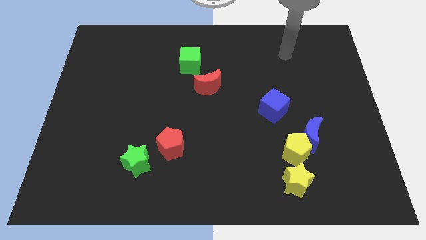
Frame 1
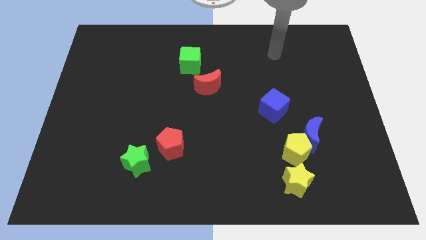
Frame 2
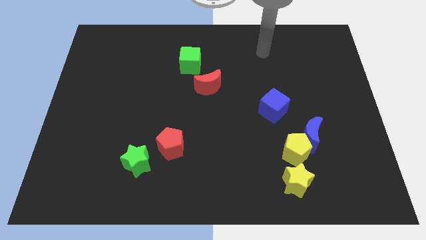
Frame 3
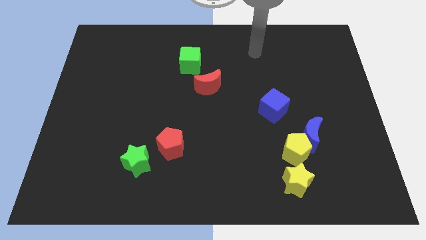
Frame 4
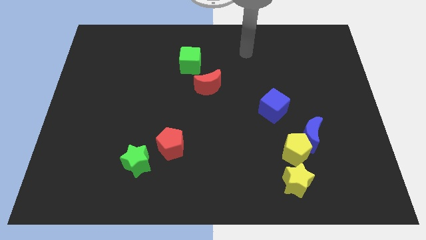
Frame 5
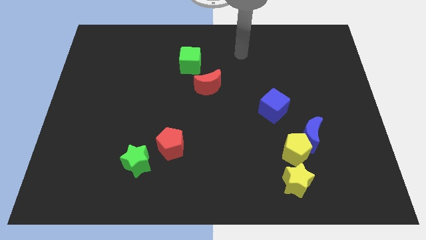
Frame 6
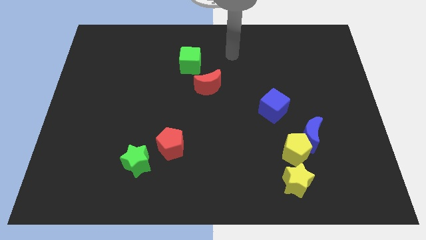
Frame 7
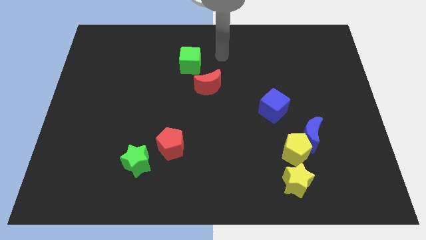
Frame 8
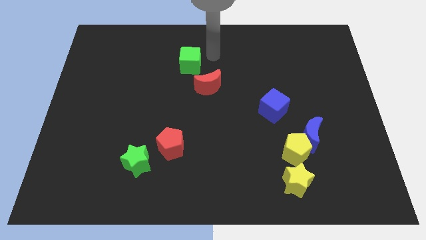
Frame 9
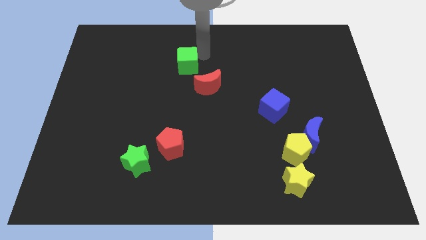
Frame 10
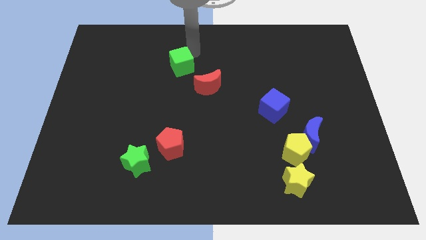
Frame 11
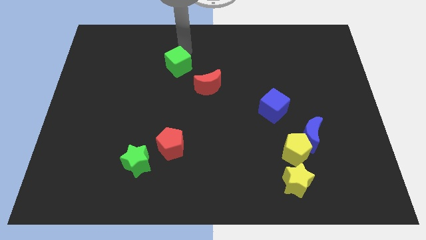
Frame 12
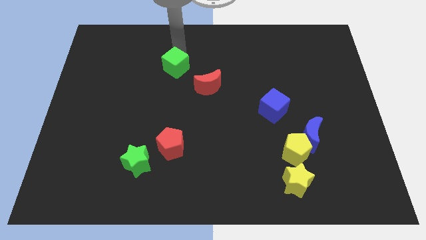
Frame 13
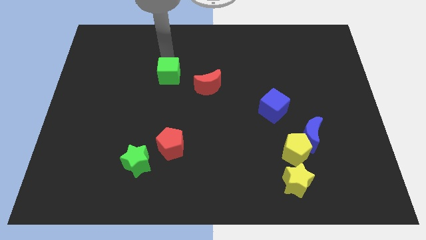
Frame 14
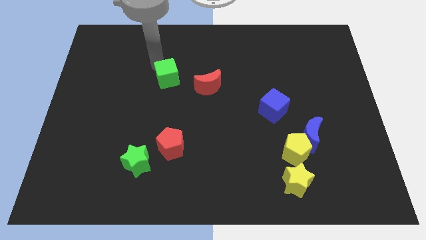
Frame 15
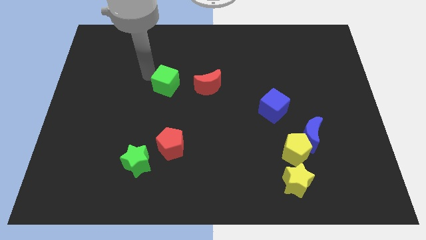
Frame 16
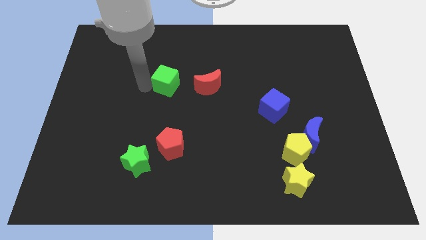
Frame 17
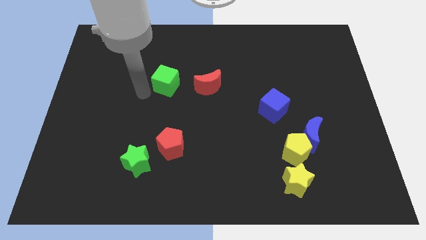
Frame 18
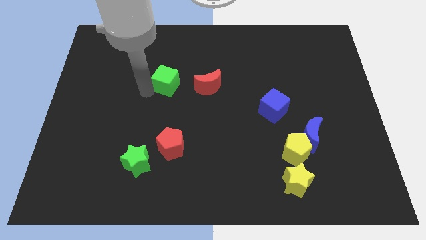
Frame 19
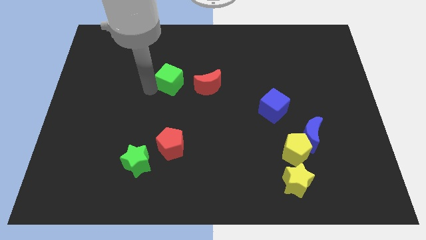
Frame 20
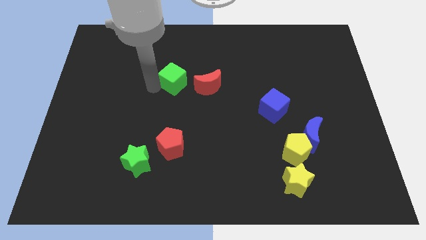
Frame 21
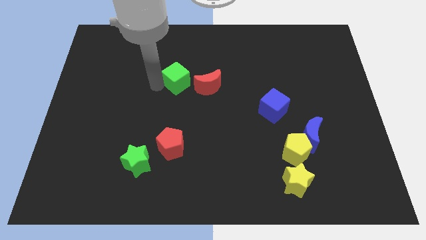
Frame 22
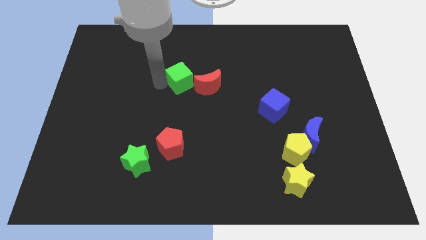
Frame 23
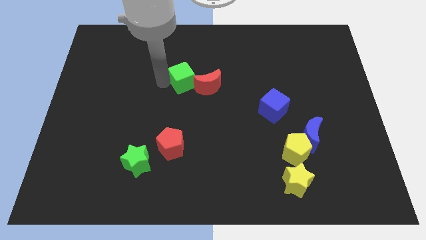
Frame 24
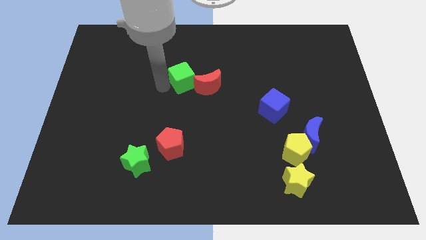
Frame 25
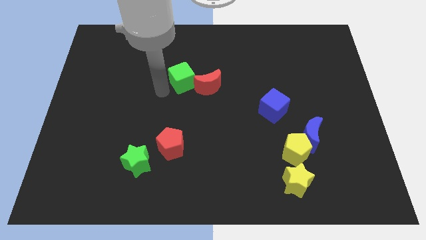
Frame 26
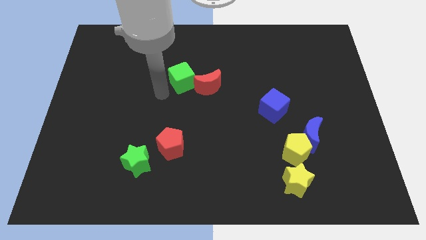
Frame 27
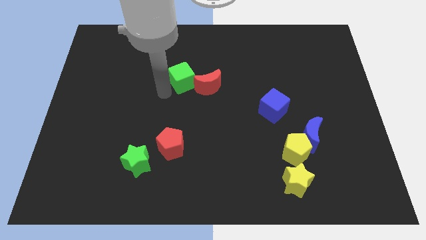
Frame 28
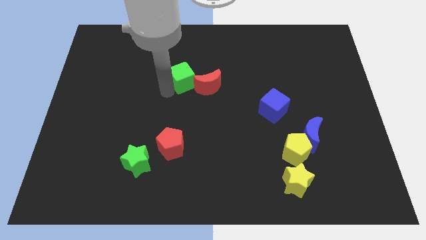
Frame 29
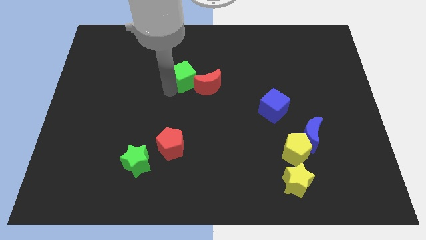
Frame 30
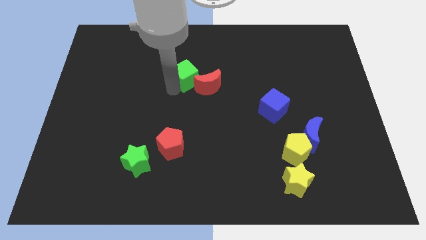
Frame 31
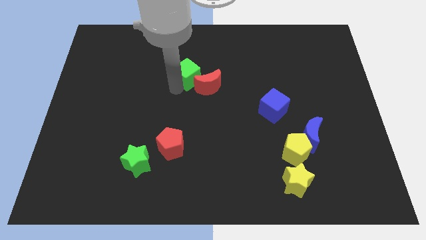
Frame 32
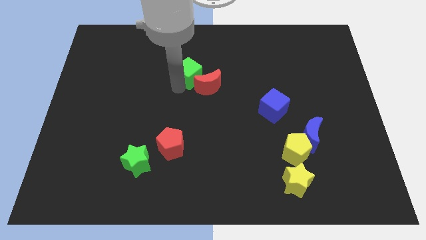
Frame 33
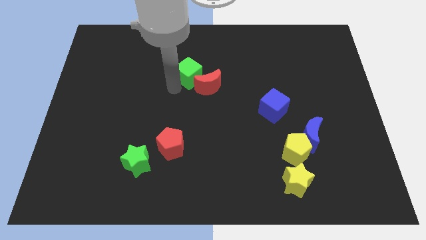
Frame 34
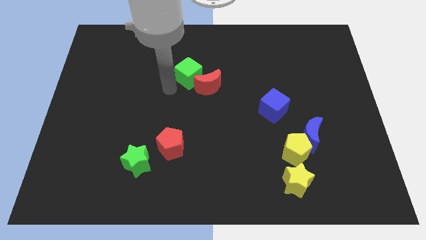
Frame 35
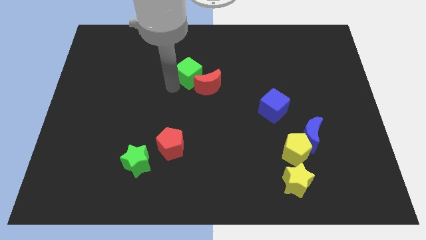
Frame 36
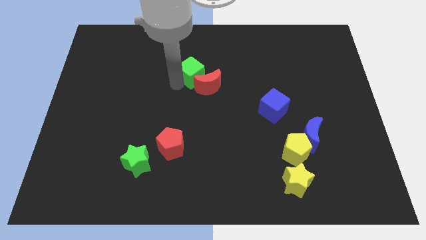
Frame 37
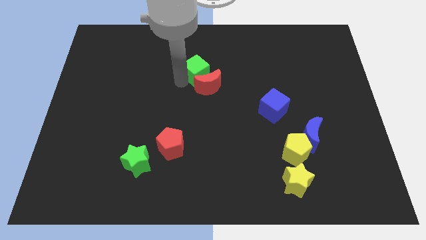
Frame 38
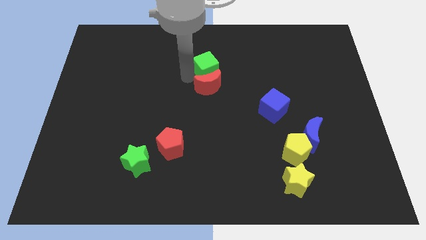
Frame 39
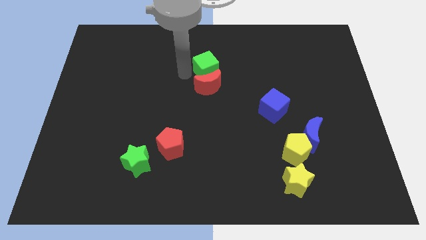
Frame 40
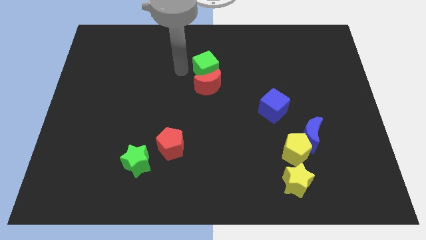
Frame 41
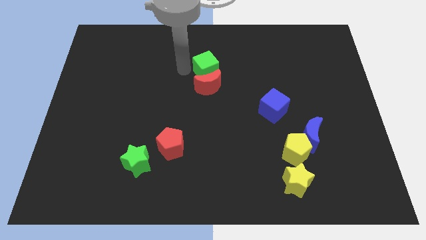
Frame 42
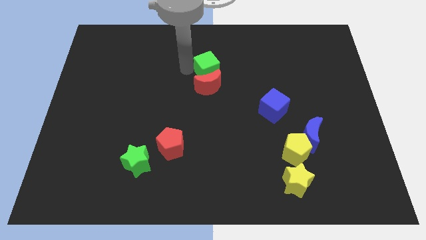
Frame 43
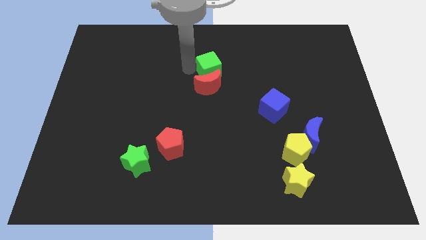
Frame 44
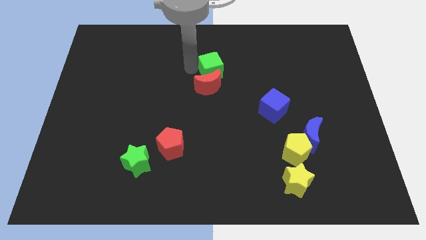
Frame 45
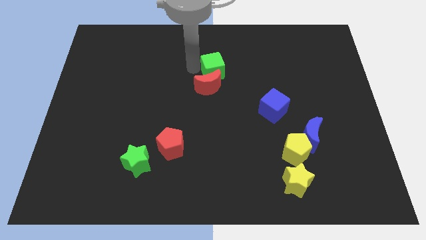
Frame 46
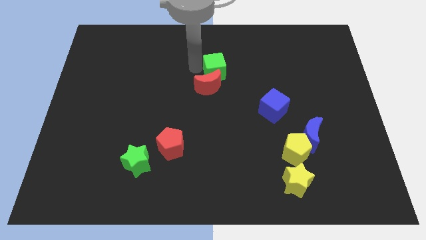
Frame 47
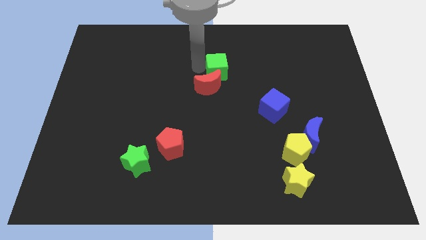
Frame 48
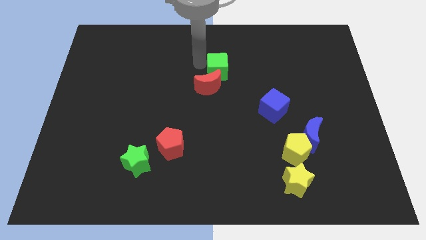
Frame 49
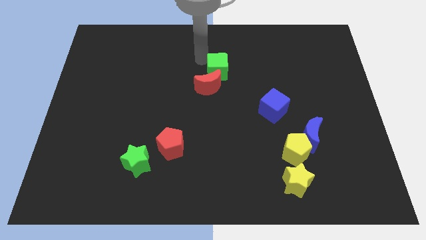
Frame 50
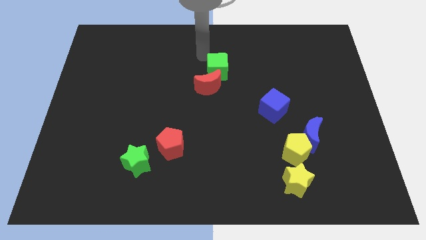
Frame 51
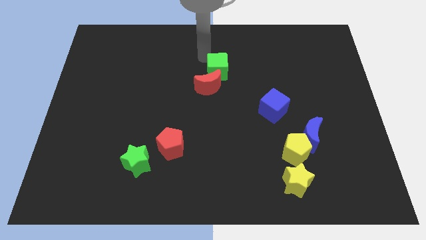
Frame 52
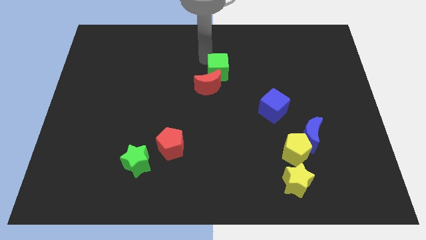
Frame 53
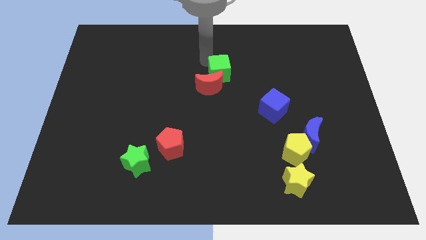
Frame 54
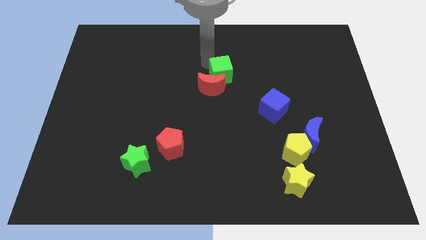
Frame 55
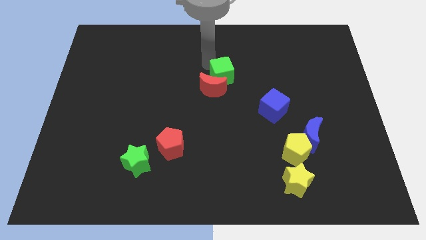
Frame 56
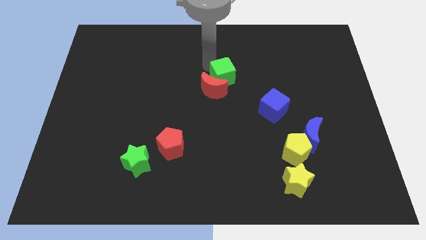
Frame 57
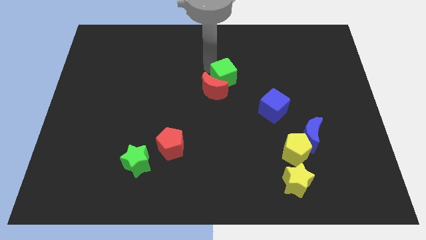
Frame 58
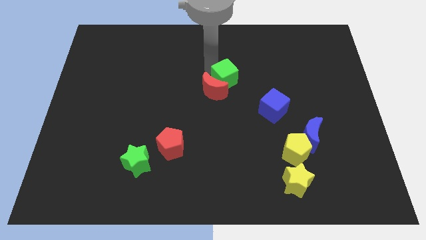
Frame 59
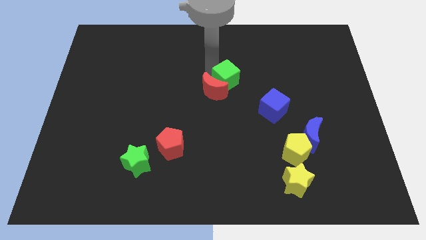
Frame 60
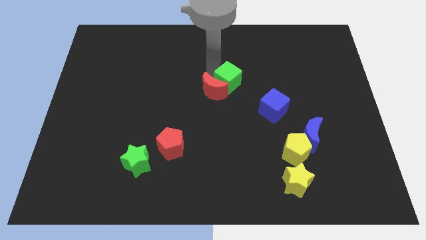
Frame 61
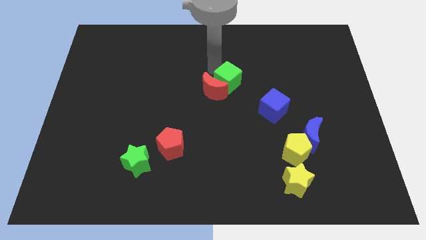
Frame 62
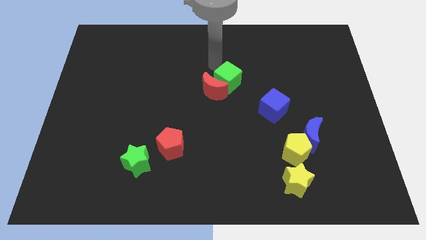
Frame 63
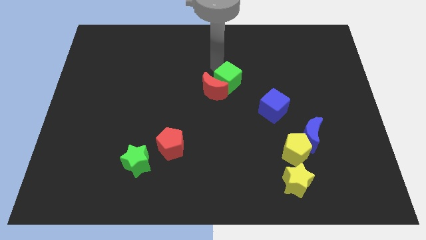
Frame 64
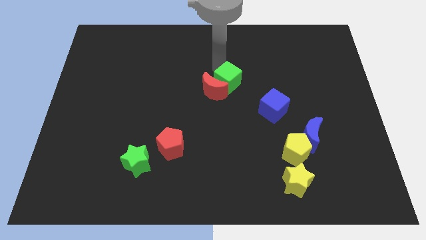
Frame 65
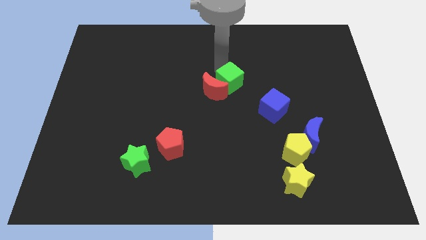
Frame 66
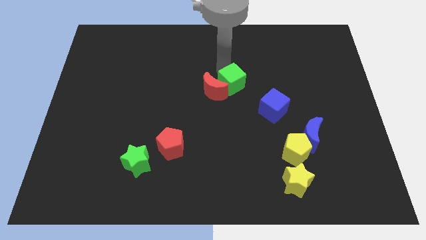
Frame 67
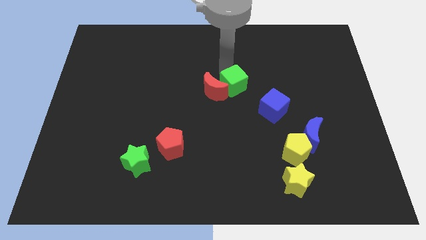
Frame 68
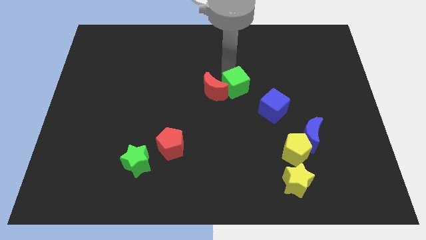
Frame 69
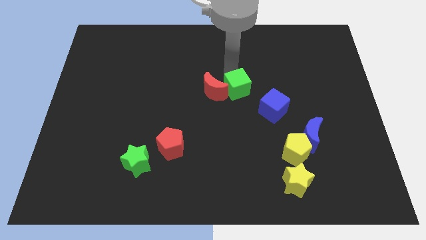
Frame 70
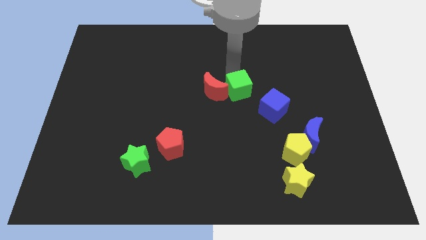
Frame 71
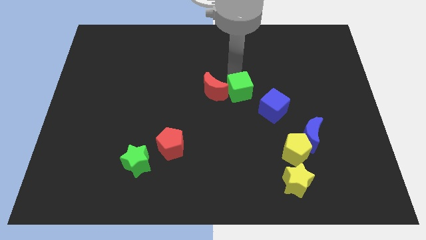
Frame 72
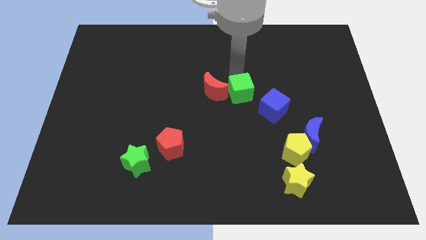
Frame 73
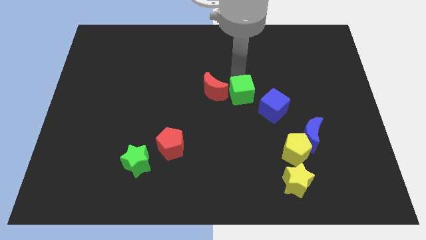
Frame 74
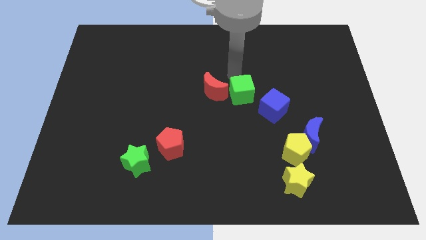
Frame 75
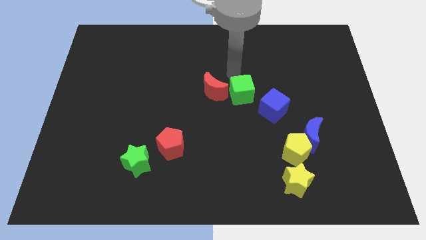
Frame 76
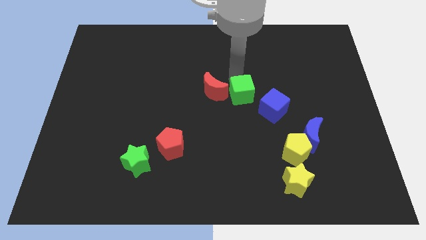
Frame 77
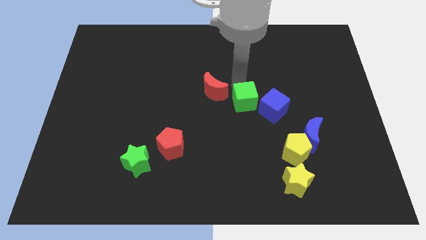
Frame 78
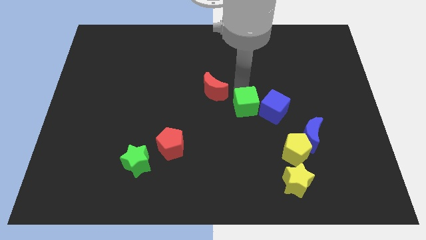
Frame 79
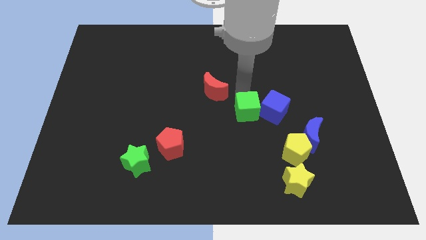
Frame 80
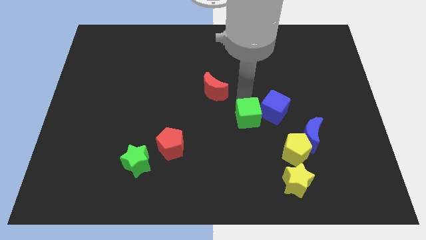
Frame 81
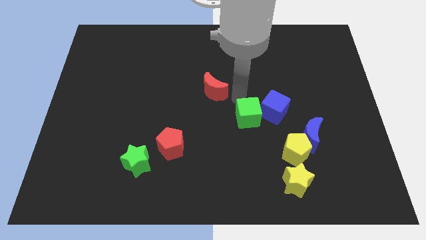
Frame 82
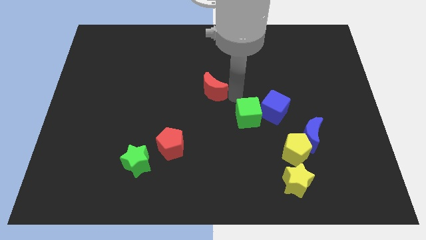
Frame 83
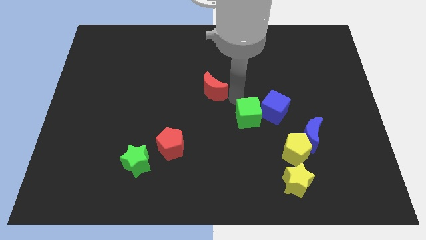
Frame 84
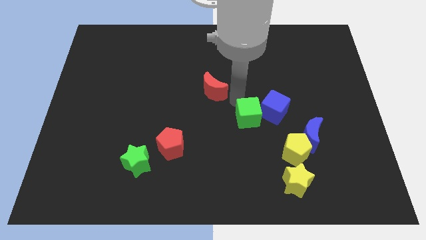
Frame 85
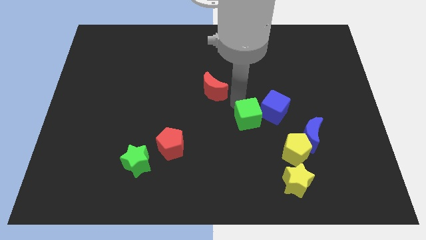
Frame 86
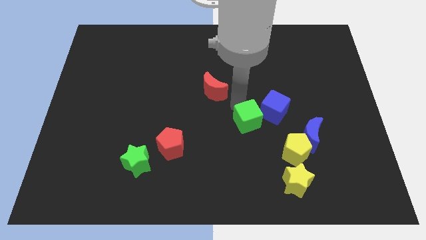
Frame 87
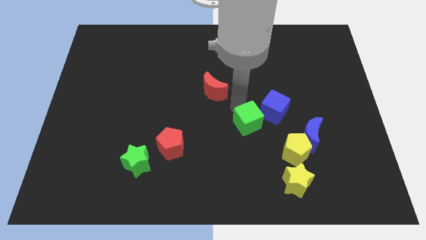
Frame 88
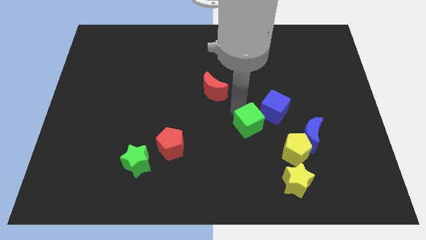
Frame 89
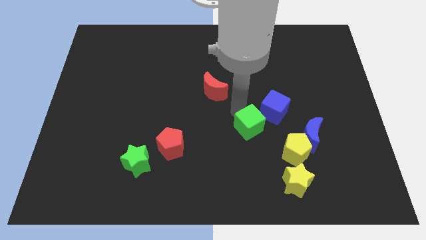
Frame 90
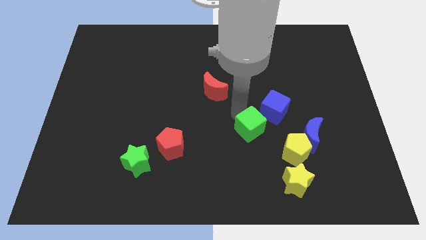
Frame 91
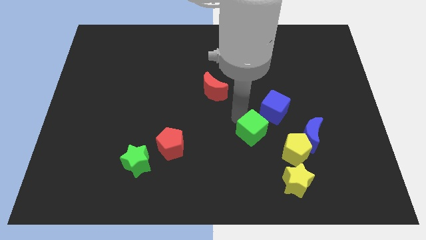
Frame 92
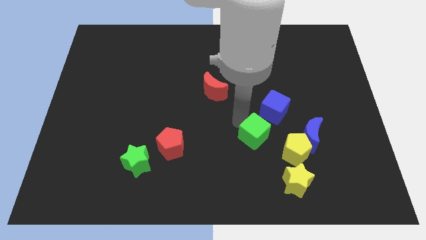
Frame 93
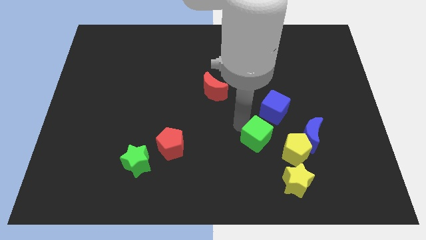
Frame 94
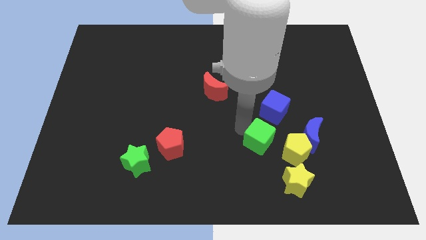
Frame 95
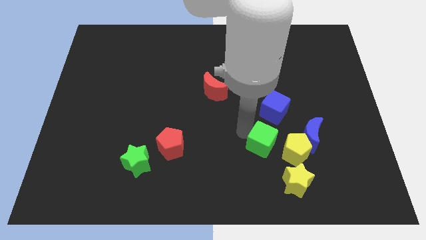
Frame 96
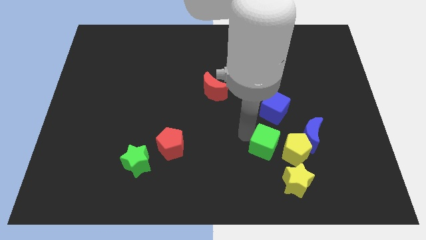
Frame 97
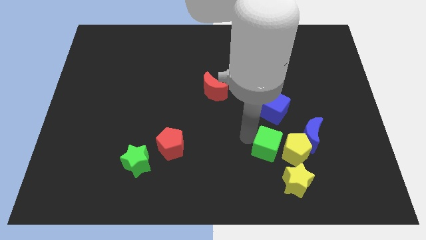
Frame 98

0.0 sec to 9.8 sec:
push the green cube towards the yellow pentagon
